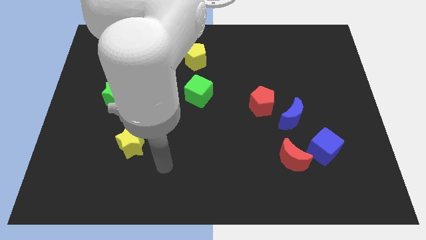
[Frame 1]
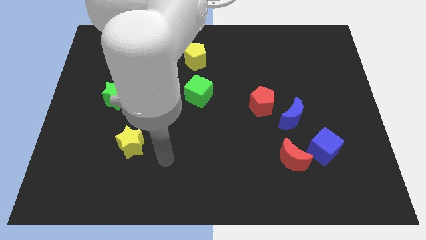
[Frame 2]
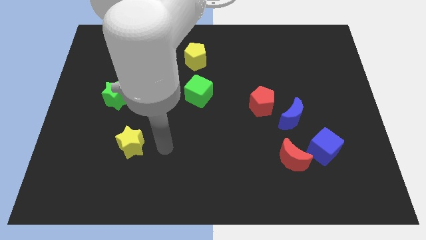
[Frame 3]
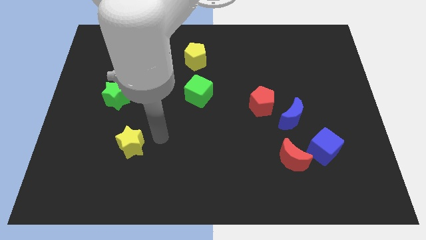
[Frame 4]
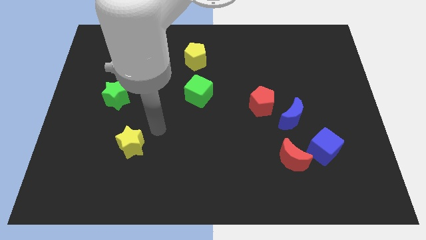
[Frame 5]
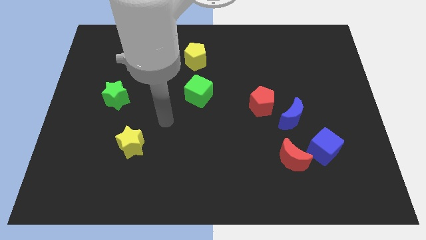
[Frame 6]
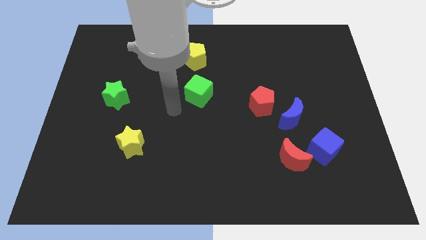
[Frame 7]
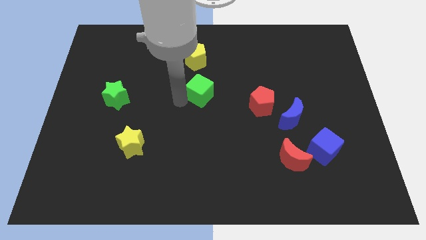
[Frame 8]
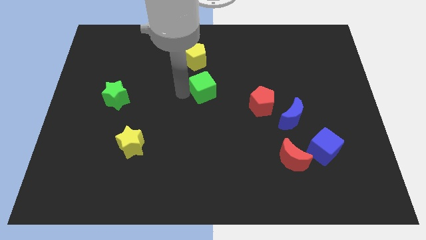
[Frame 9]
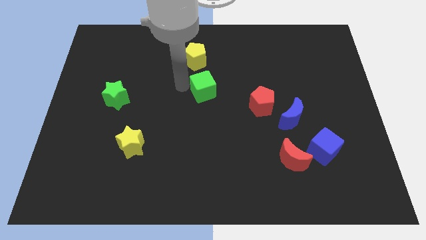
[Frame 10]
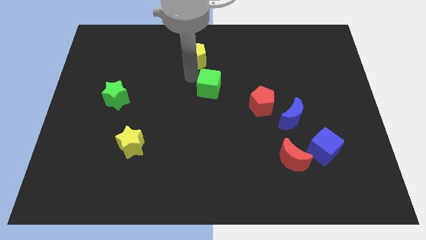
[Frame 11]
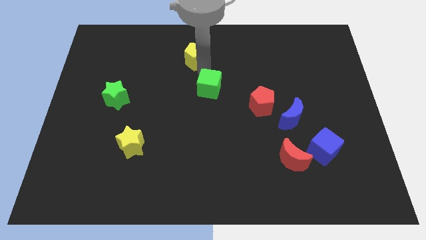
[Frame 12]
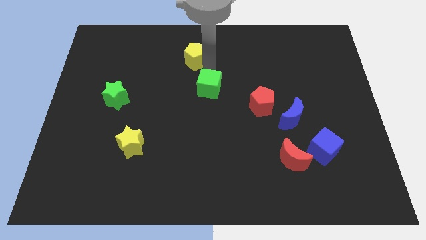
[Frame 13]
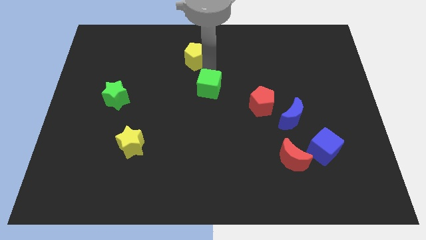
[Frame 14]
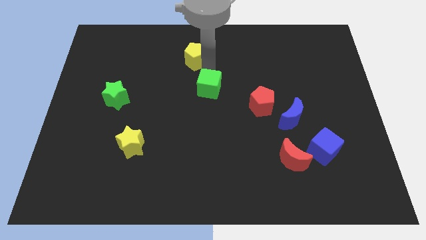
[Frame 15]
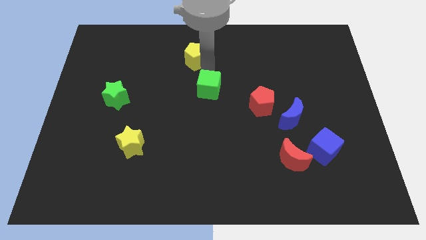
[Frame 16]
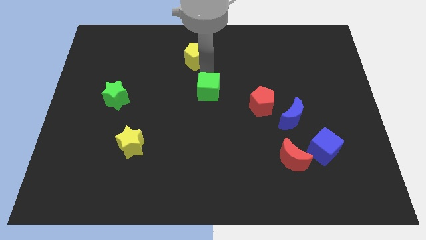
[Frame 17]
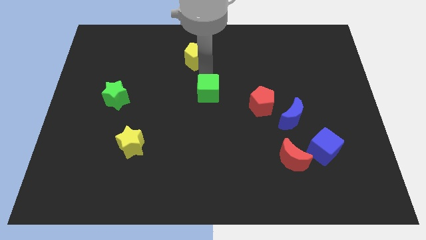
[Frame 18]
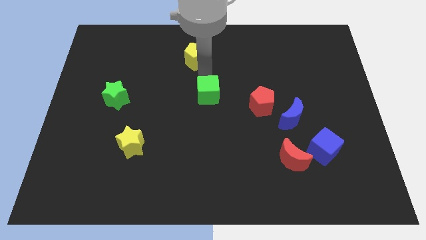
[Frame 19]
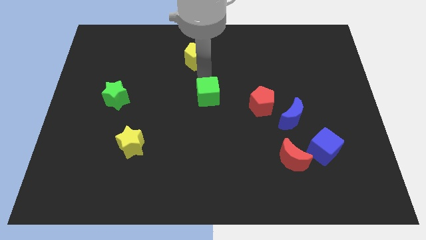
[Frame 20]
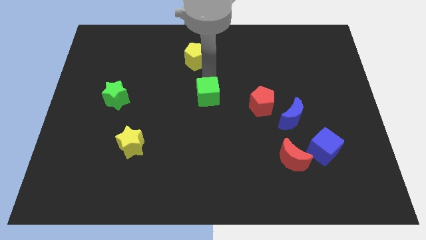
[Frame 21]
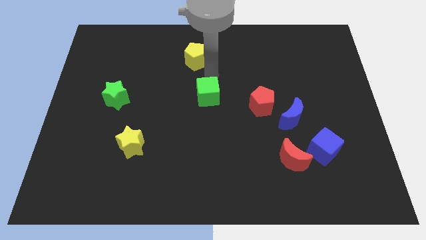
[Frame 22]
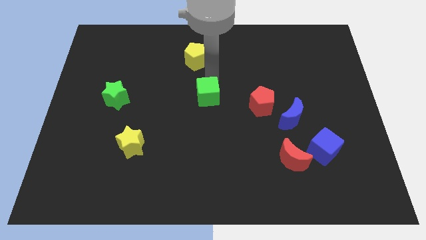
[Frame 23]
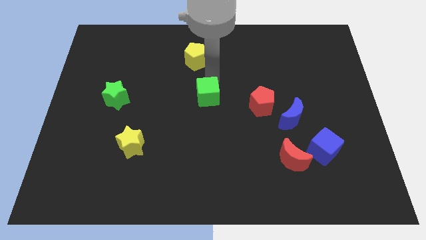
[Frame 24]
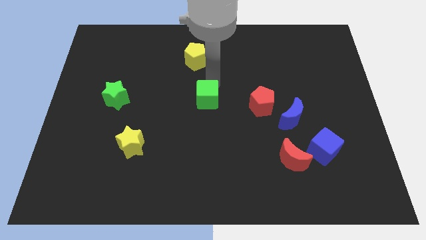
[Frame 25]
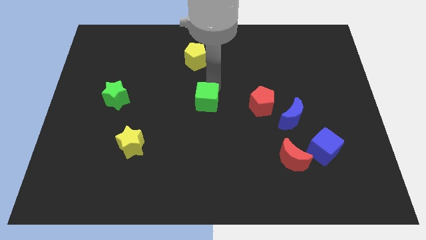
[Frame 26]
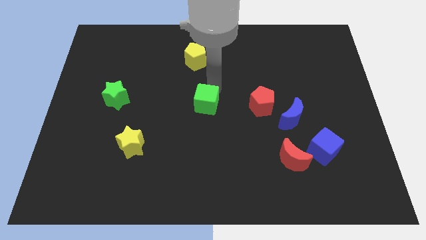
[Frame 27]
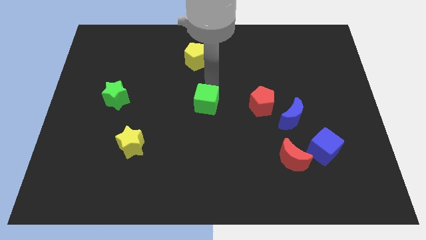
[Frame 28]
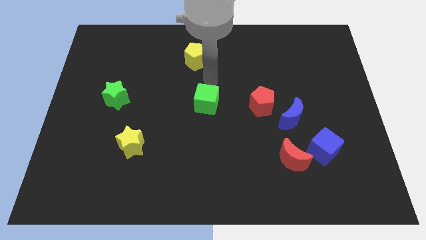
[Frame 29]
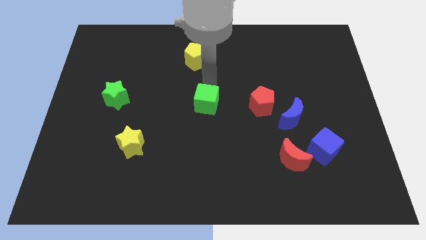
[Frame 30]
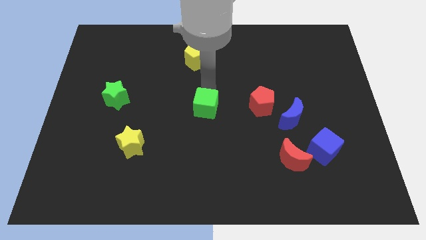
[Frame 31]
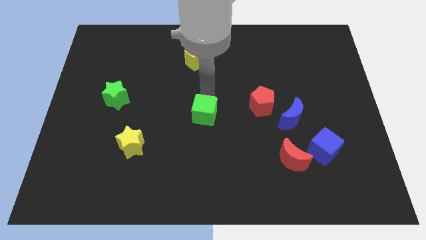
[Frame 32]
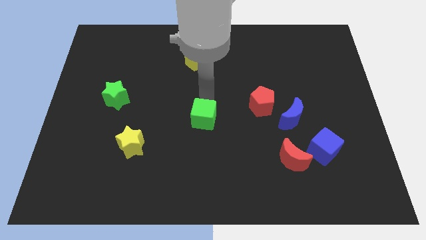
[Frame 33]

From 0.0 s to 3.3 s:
slightly slide the green cube downwards

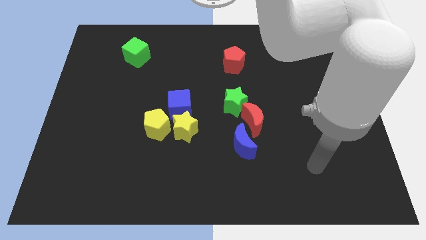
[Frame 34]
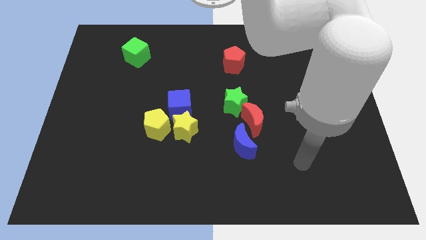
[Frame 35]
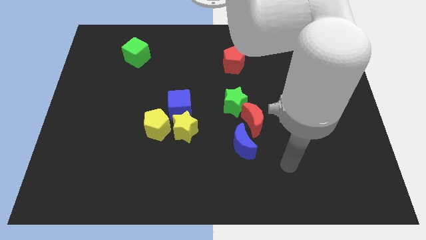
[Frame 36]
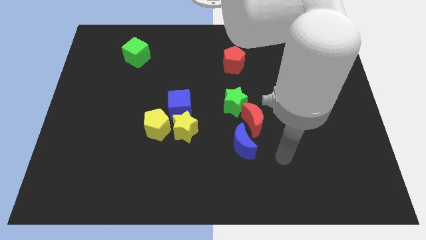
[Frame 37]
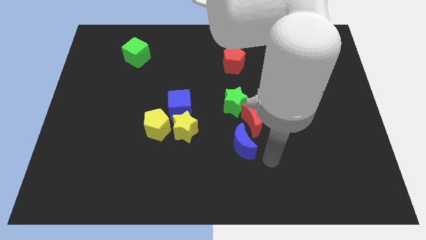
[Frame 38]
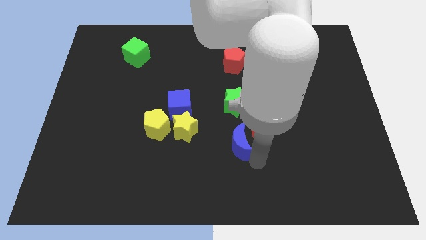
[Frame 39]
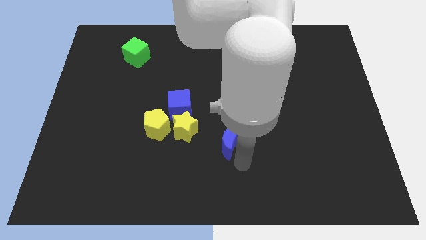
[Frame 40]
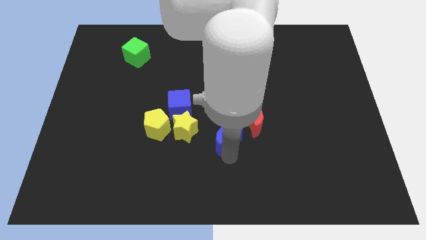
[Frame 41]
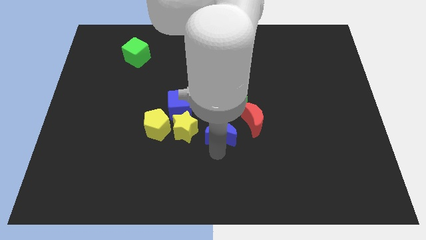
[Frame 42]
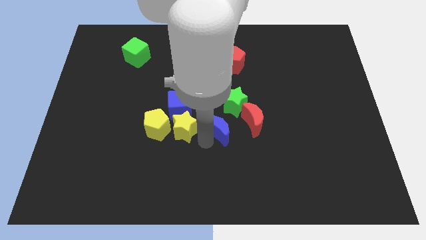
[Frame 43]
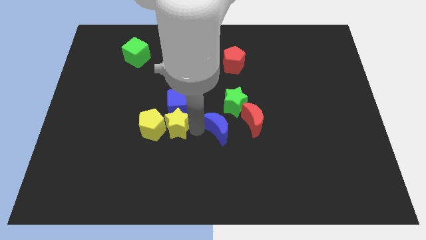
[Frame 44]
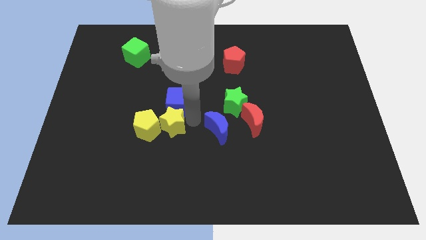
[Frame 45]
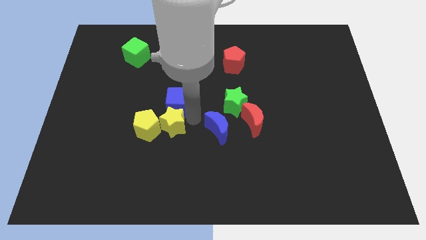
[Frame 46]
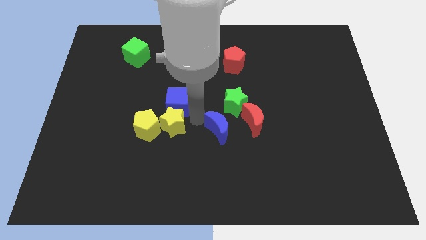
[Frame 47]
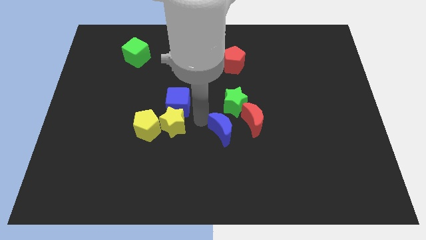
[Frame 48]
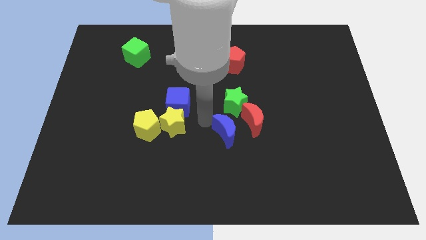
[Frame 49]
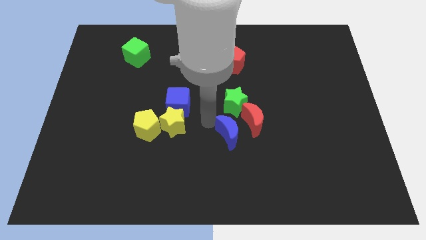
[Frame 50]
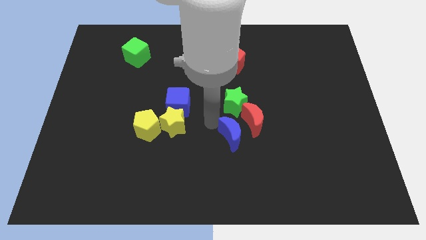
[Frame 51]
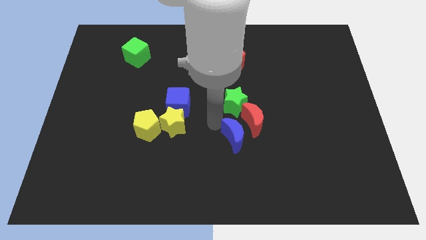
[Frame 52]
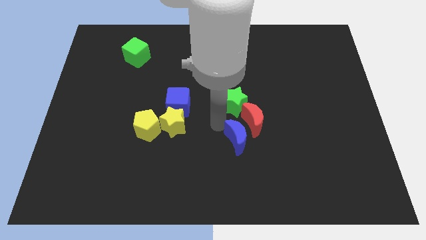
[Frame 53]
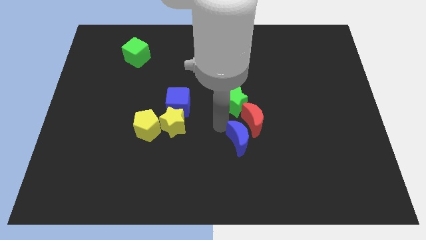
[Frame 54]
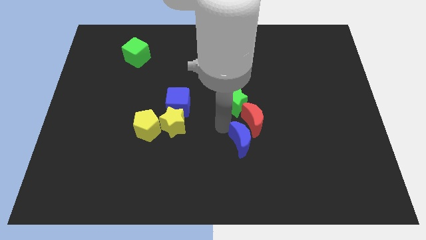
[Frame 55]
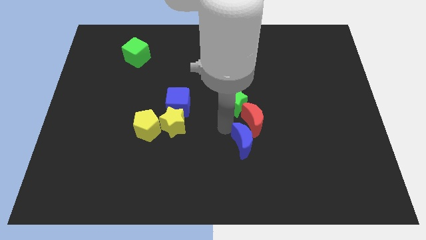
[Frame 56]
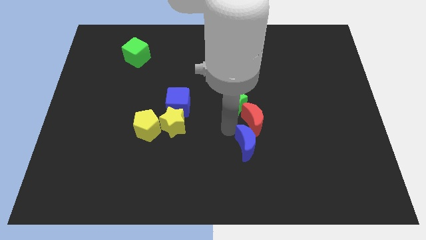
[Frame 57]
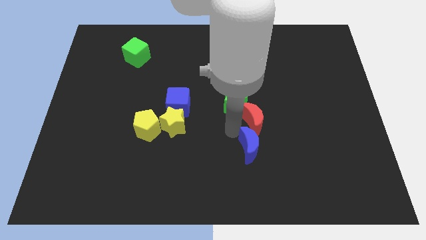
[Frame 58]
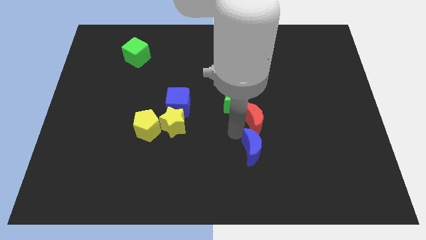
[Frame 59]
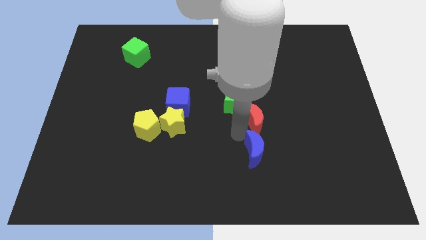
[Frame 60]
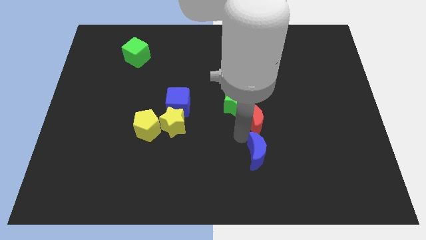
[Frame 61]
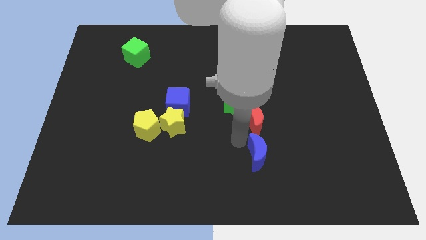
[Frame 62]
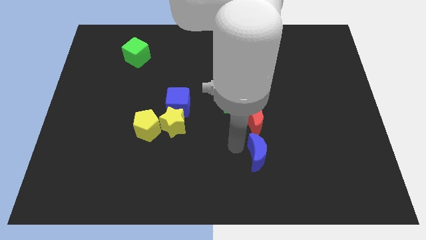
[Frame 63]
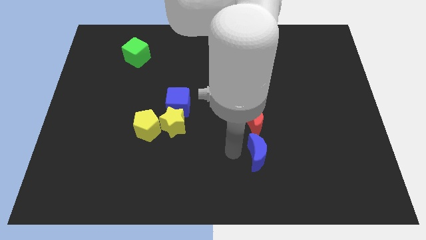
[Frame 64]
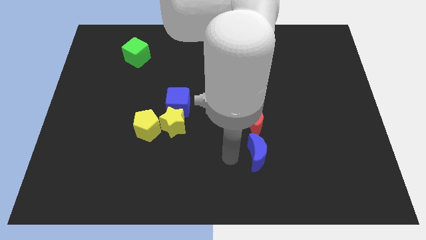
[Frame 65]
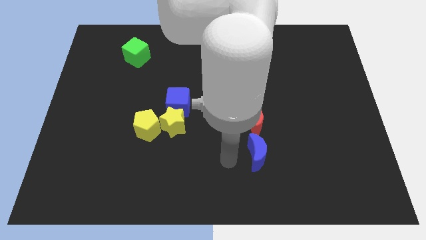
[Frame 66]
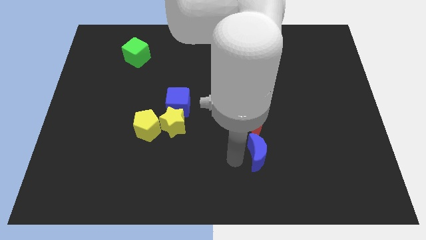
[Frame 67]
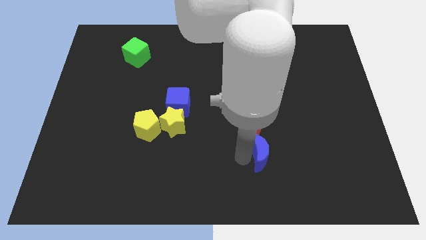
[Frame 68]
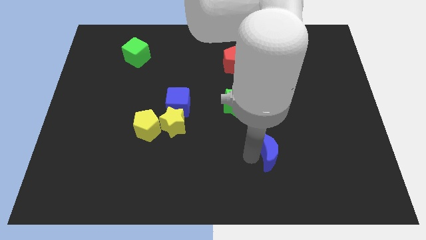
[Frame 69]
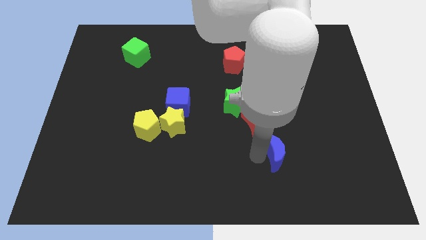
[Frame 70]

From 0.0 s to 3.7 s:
push the blue moon to the right a bit

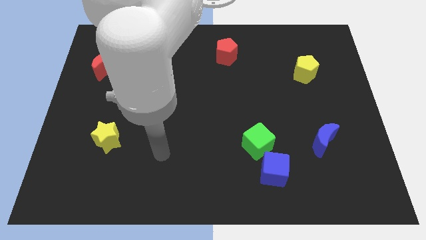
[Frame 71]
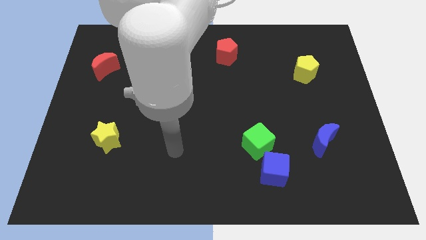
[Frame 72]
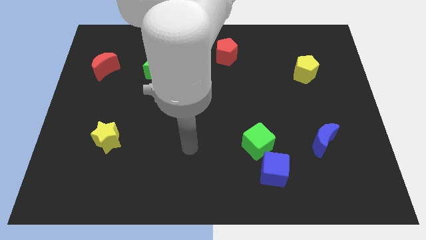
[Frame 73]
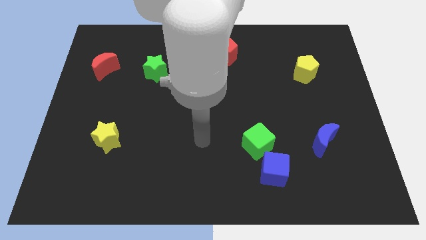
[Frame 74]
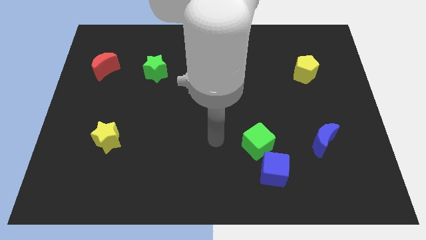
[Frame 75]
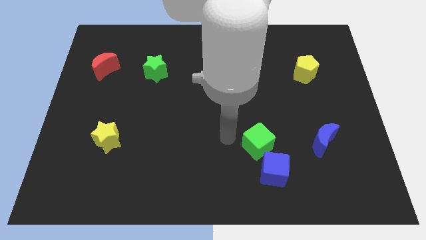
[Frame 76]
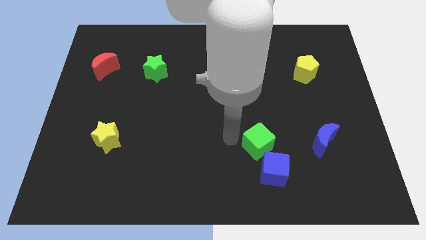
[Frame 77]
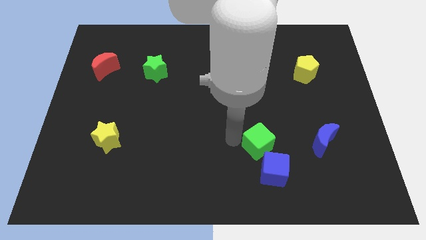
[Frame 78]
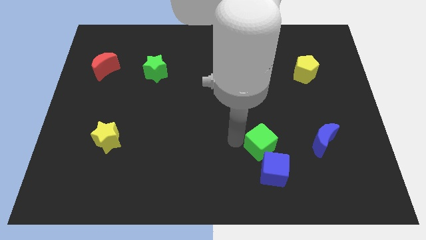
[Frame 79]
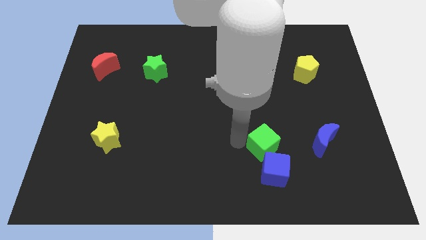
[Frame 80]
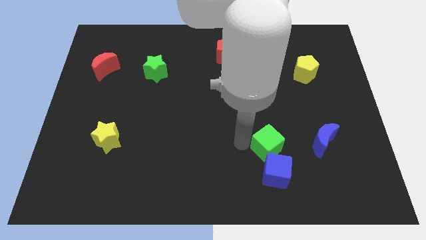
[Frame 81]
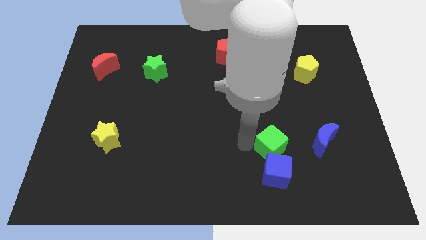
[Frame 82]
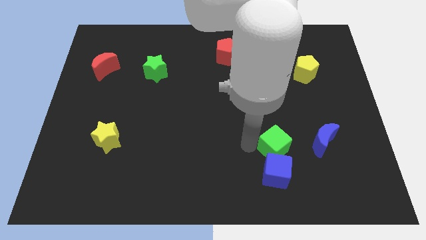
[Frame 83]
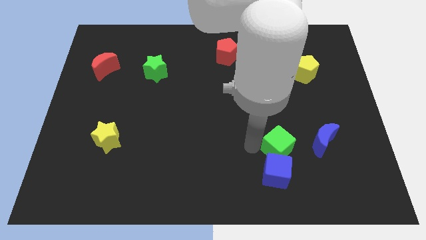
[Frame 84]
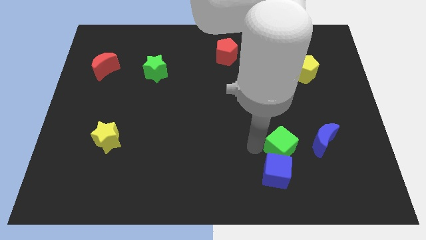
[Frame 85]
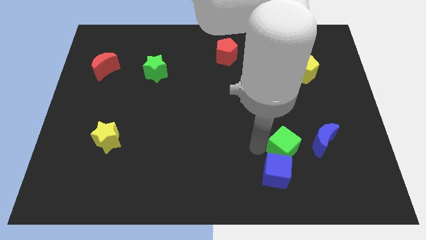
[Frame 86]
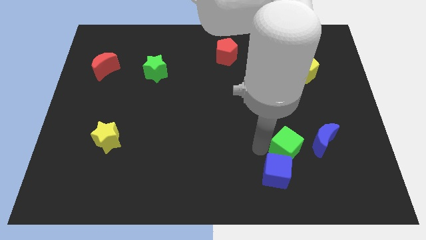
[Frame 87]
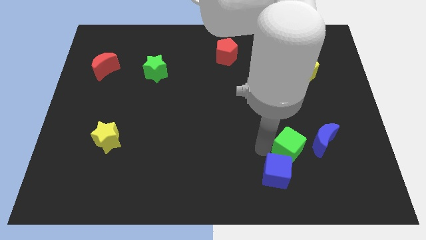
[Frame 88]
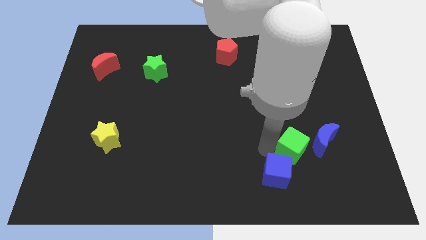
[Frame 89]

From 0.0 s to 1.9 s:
slightly move the green cube to the right
